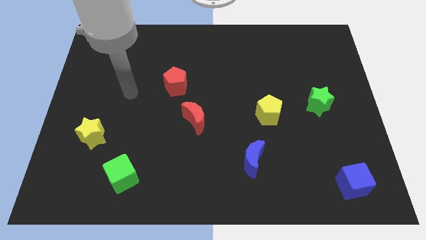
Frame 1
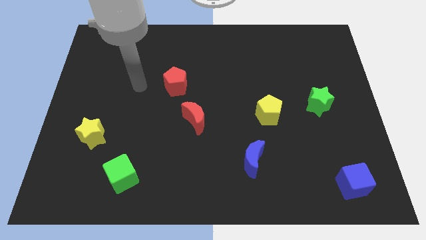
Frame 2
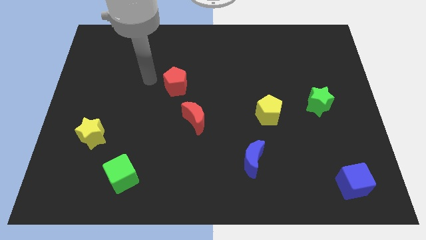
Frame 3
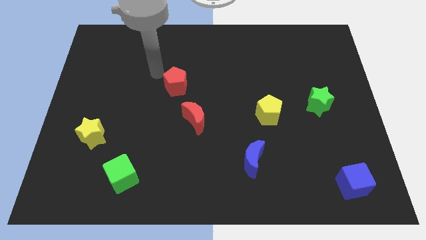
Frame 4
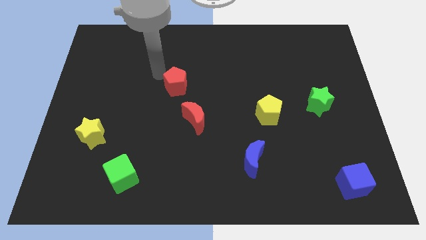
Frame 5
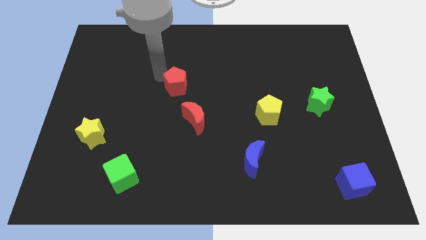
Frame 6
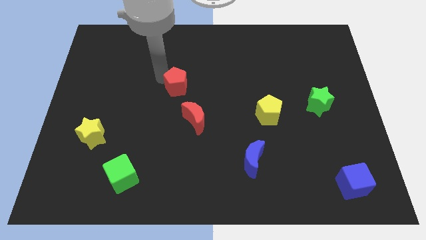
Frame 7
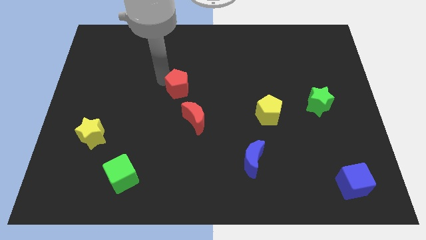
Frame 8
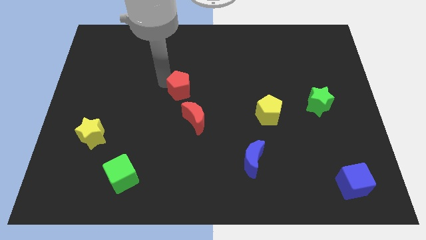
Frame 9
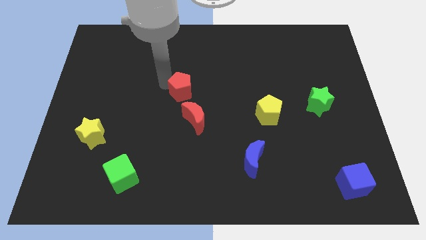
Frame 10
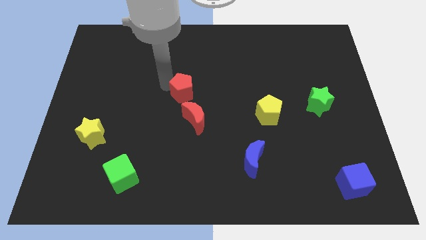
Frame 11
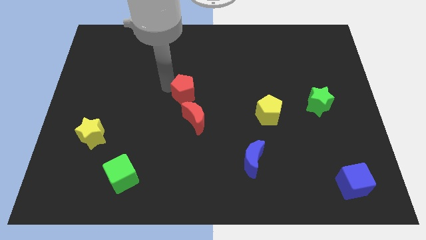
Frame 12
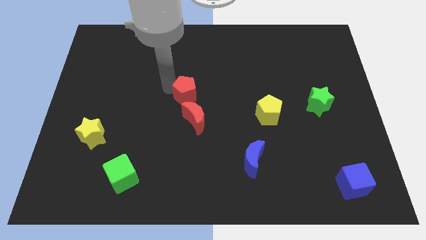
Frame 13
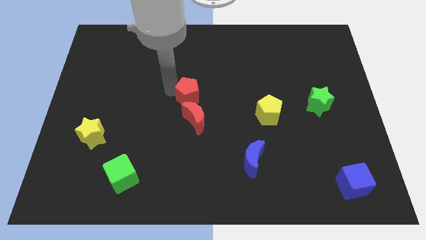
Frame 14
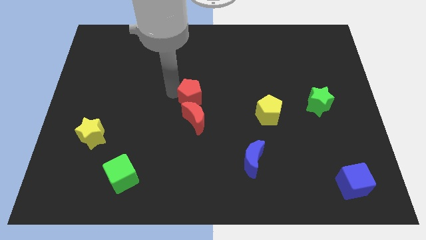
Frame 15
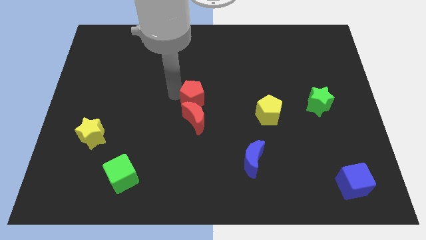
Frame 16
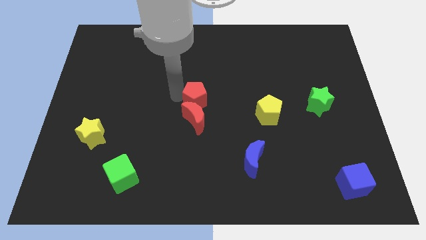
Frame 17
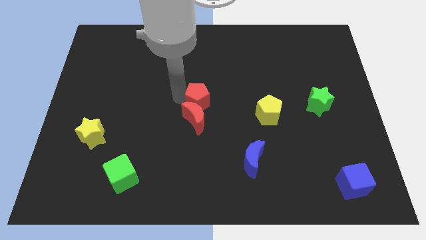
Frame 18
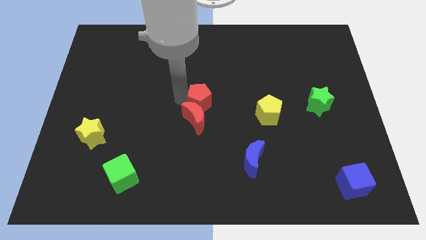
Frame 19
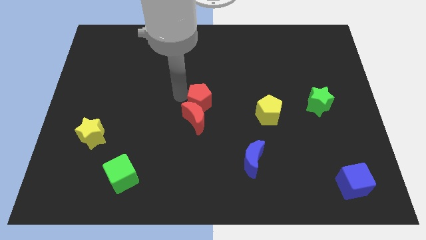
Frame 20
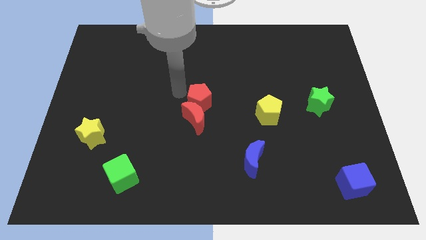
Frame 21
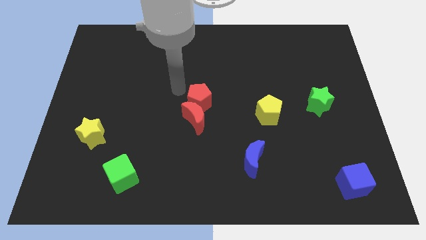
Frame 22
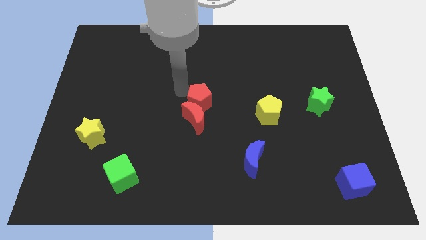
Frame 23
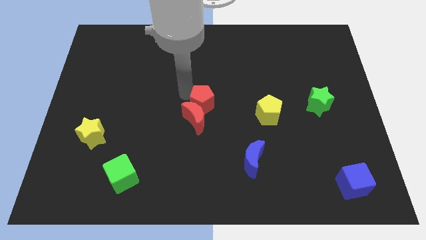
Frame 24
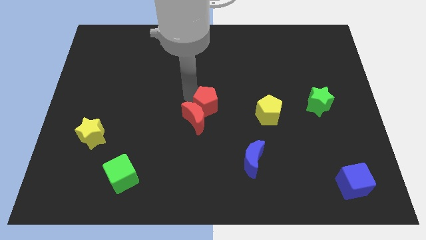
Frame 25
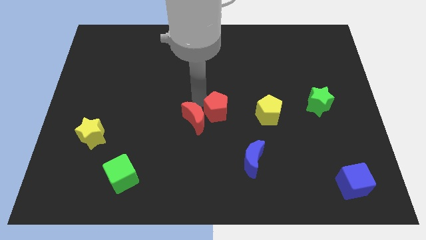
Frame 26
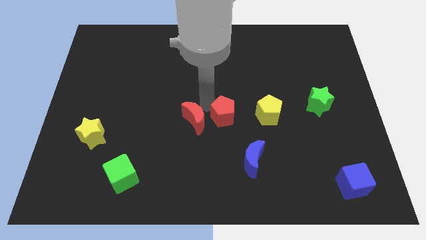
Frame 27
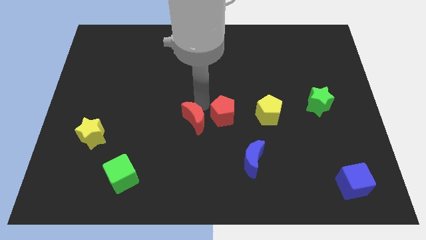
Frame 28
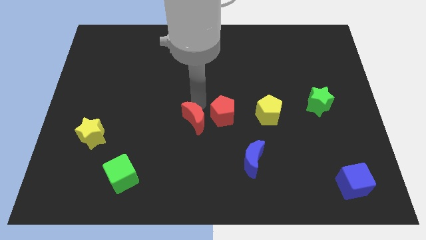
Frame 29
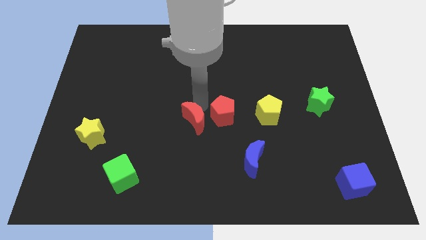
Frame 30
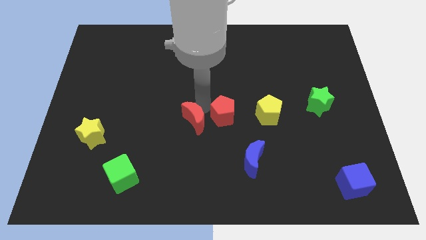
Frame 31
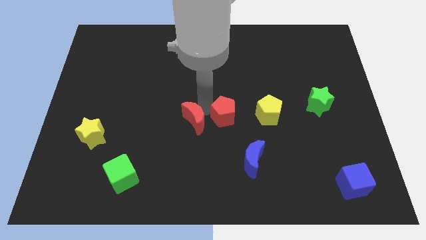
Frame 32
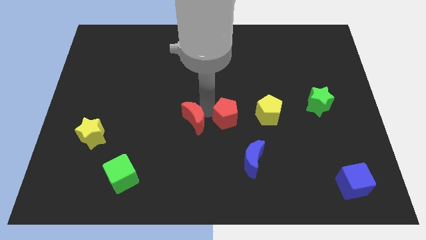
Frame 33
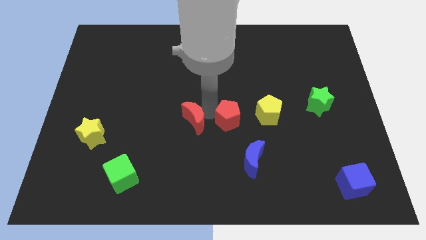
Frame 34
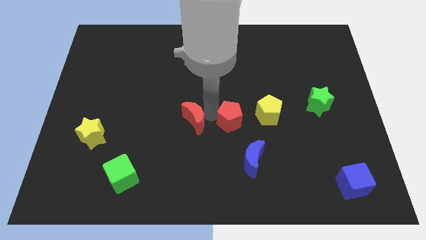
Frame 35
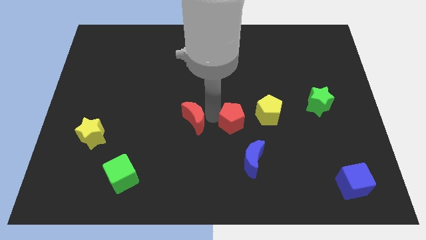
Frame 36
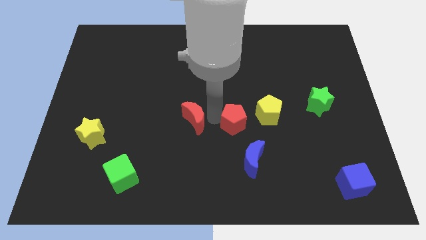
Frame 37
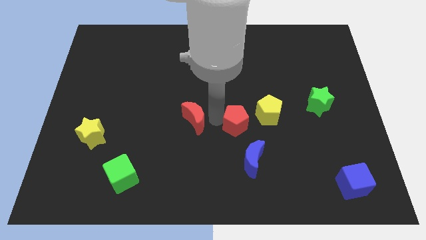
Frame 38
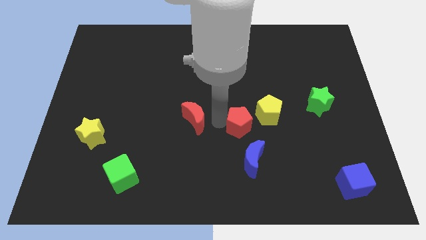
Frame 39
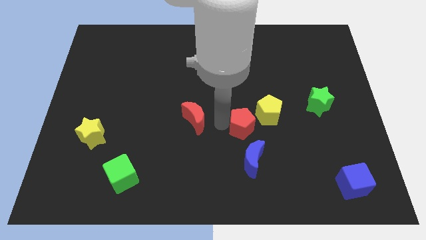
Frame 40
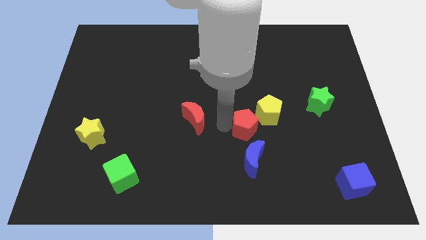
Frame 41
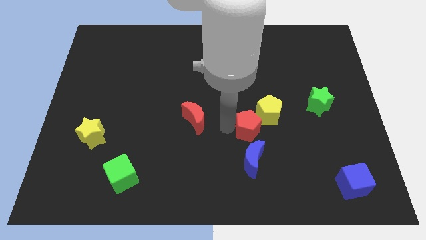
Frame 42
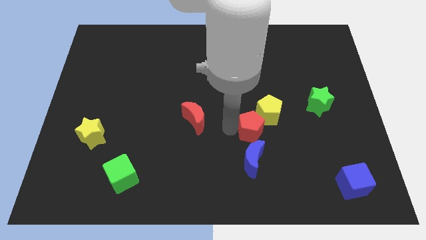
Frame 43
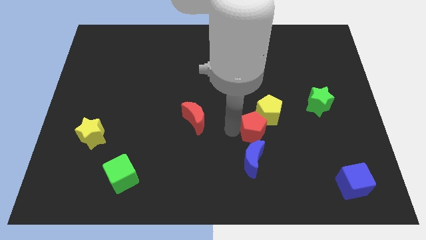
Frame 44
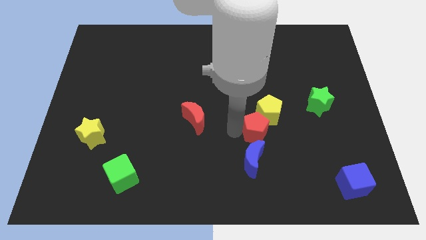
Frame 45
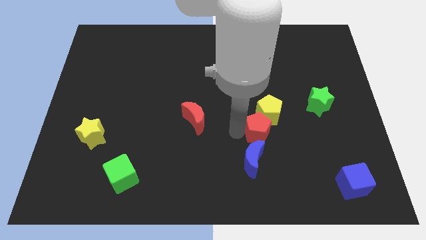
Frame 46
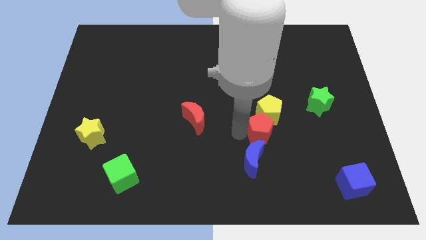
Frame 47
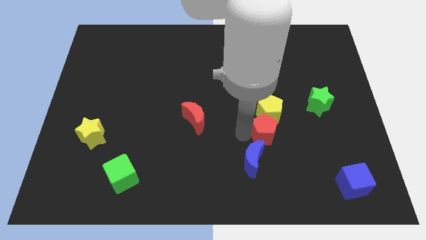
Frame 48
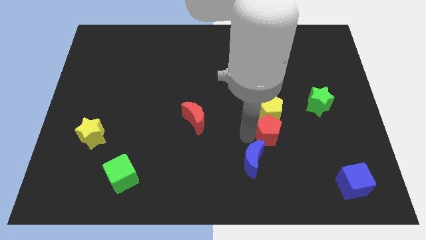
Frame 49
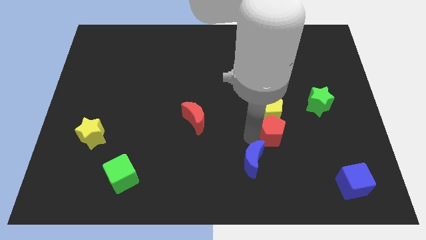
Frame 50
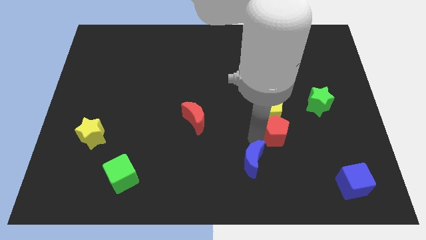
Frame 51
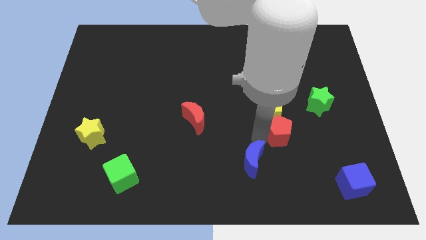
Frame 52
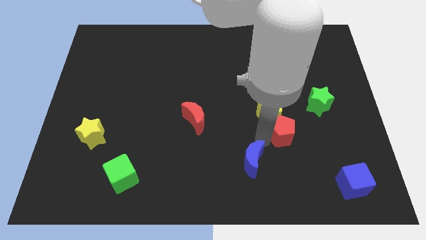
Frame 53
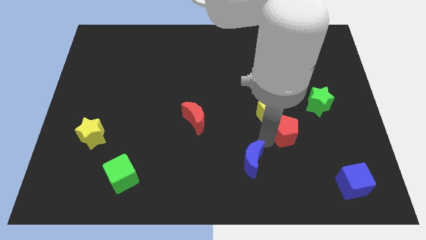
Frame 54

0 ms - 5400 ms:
push the red pentagon diagonally down and to the left of the green star

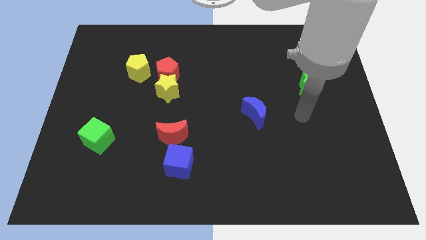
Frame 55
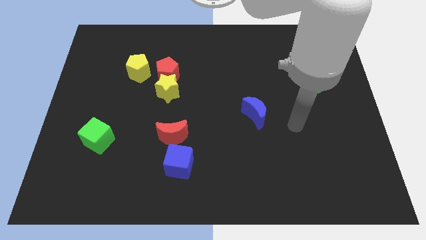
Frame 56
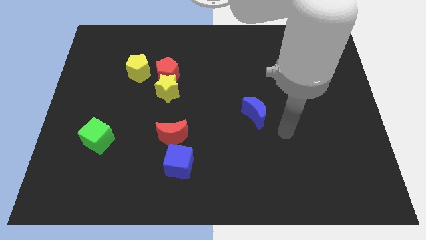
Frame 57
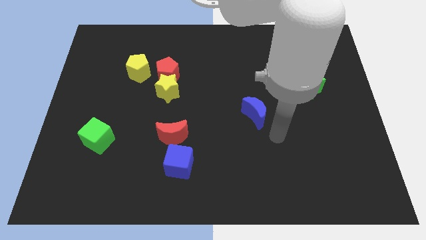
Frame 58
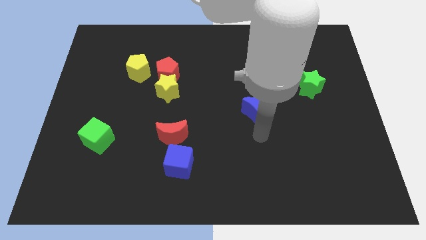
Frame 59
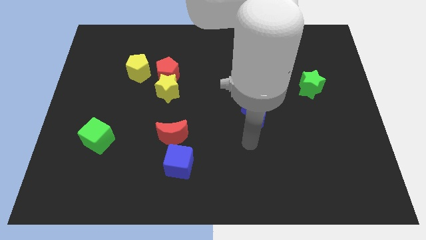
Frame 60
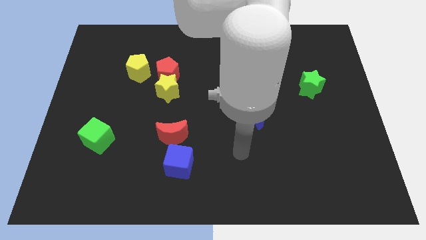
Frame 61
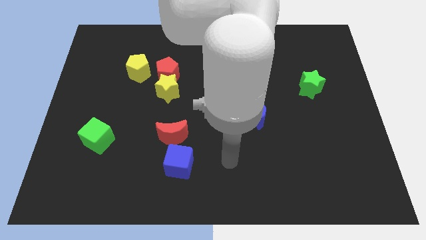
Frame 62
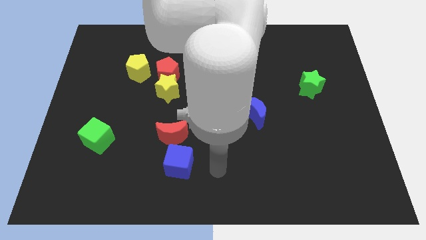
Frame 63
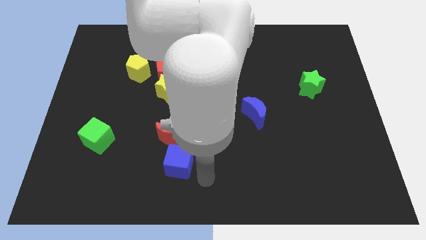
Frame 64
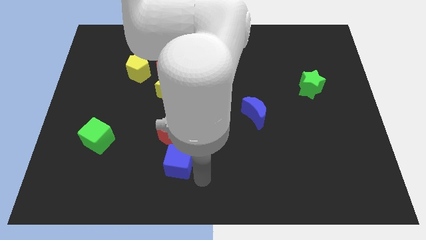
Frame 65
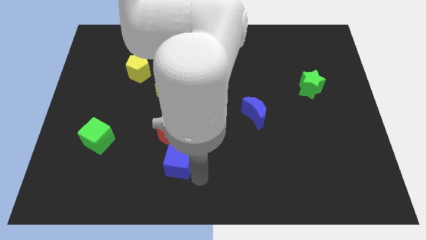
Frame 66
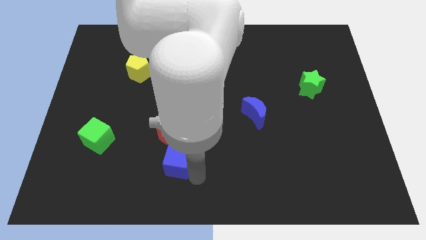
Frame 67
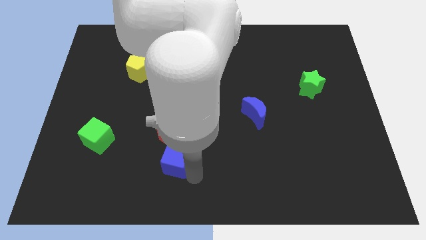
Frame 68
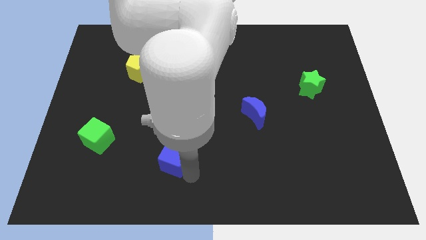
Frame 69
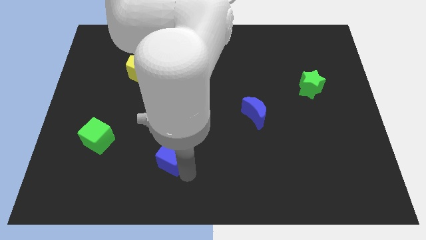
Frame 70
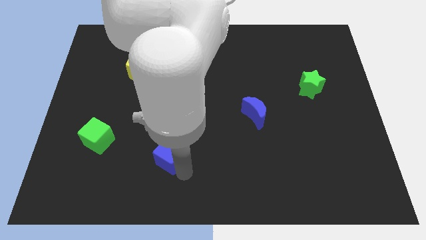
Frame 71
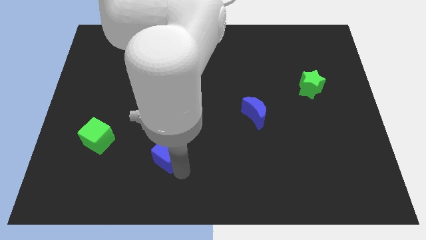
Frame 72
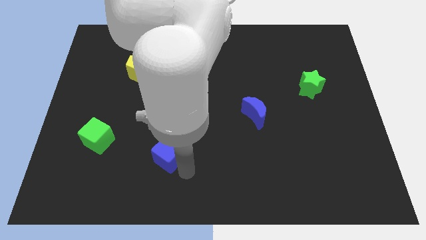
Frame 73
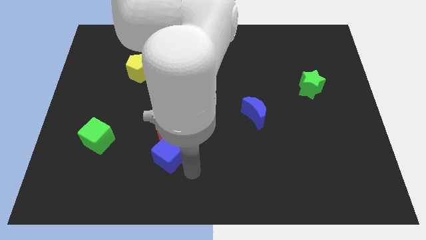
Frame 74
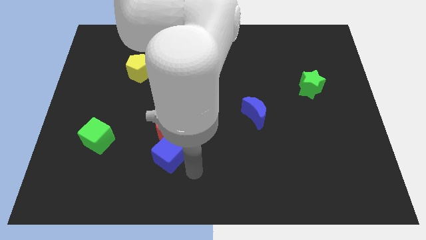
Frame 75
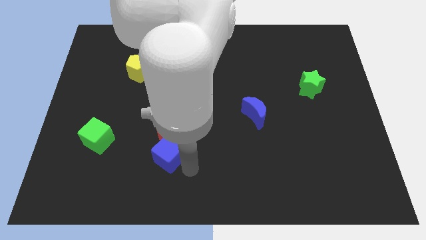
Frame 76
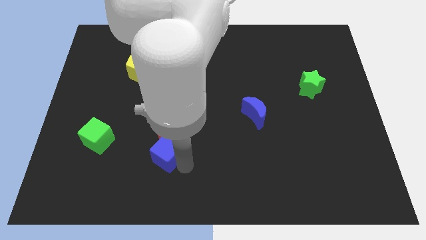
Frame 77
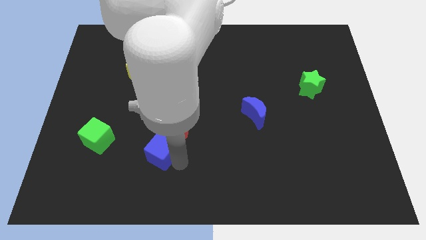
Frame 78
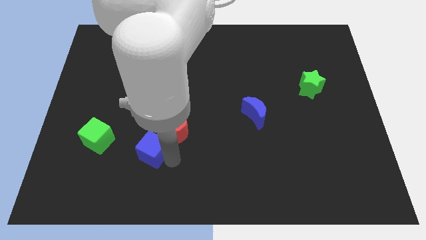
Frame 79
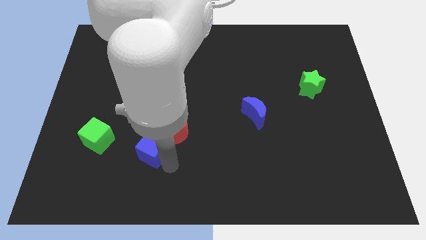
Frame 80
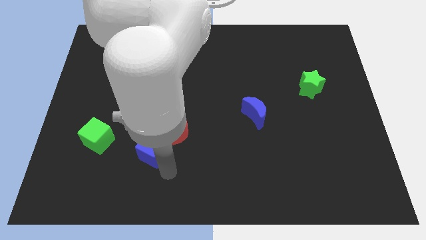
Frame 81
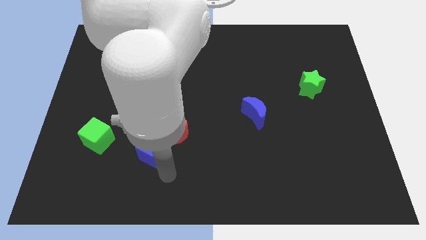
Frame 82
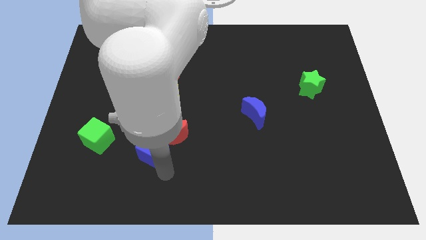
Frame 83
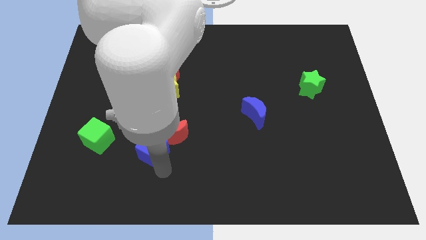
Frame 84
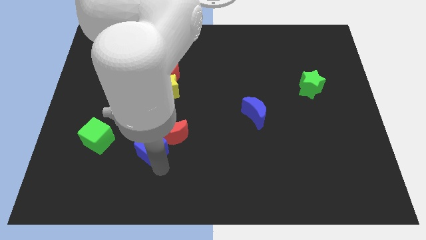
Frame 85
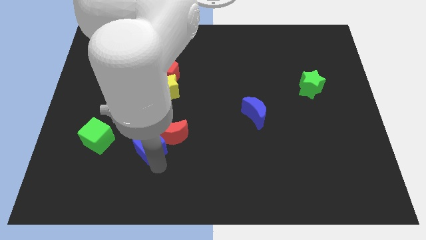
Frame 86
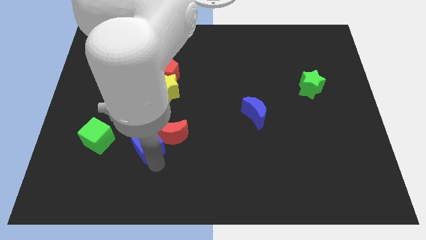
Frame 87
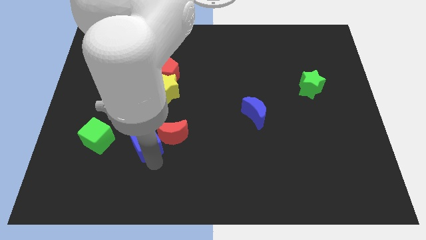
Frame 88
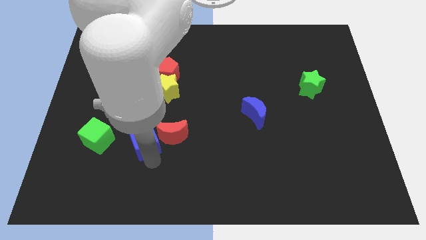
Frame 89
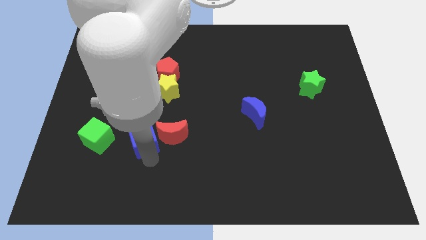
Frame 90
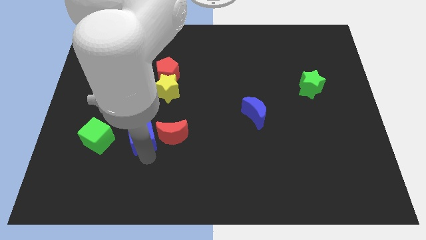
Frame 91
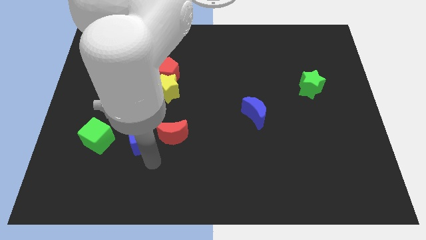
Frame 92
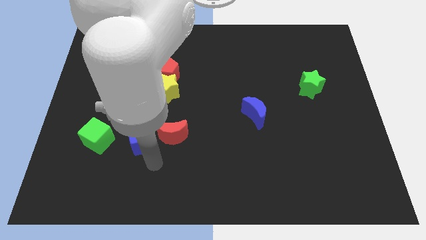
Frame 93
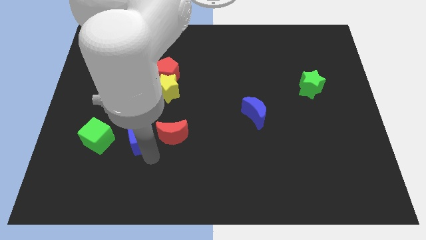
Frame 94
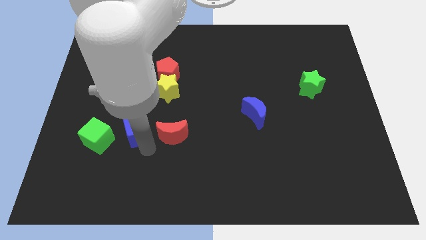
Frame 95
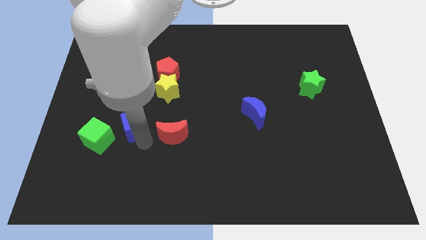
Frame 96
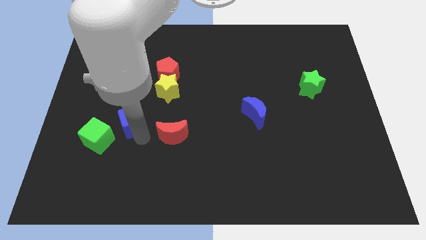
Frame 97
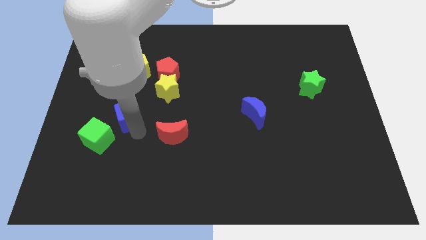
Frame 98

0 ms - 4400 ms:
slide the blue cube to the bottom side of the yellow pentagon
